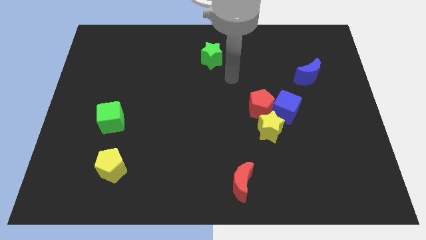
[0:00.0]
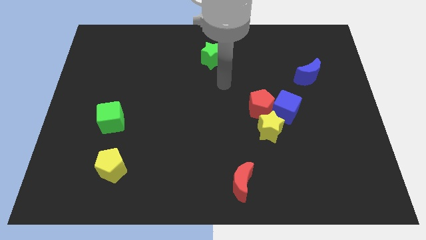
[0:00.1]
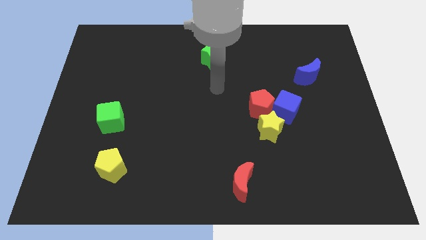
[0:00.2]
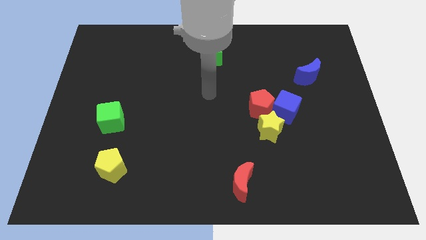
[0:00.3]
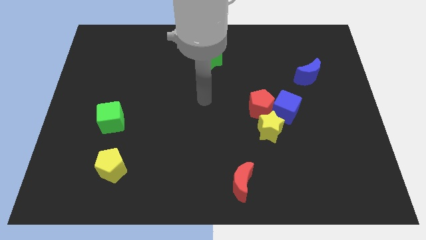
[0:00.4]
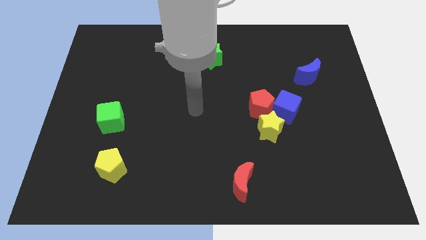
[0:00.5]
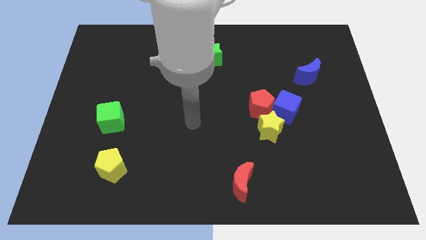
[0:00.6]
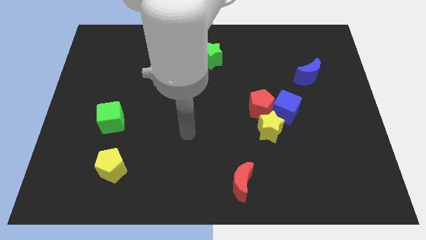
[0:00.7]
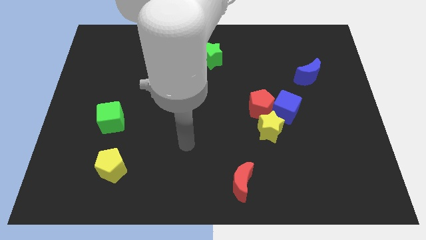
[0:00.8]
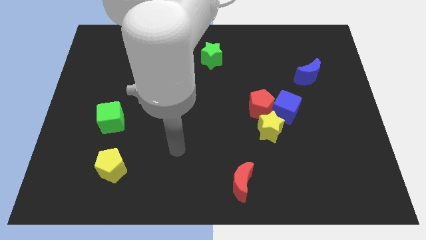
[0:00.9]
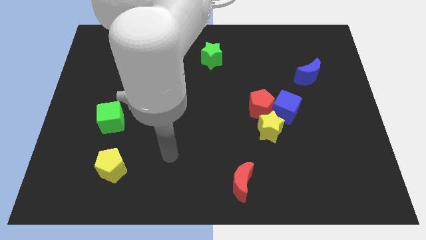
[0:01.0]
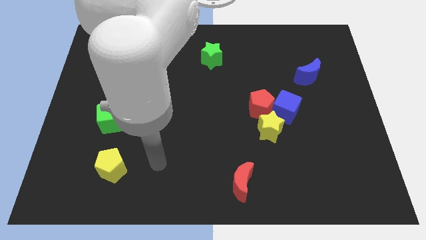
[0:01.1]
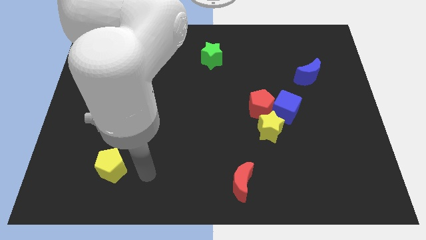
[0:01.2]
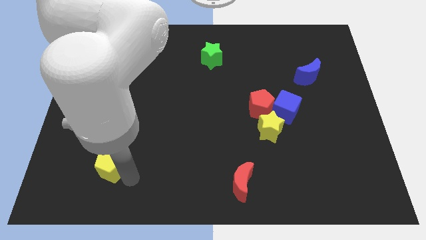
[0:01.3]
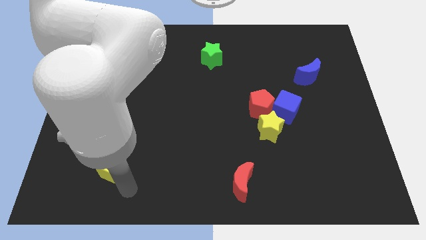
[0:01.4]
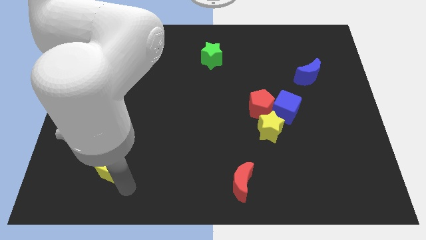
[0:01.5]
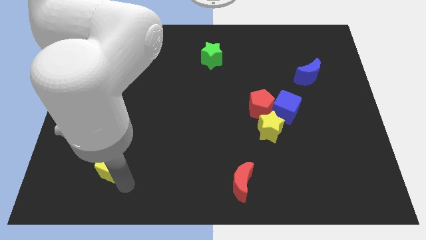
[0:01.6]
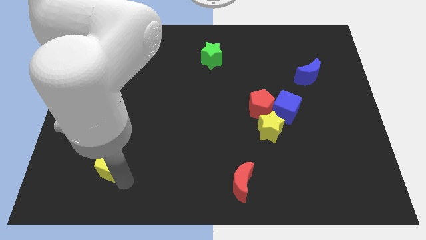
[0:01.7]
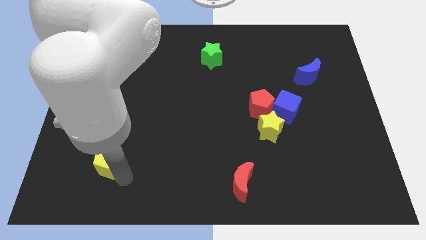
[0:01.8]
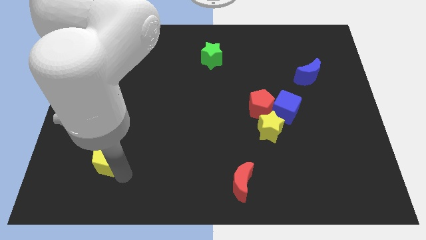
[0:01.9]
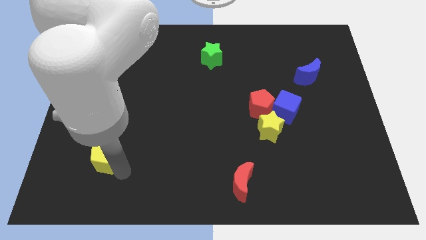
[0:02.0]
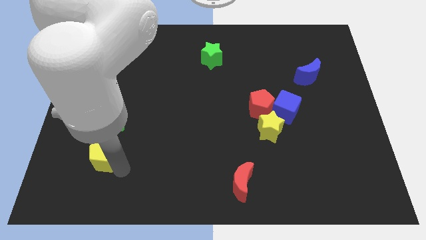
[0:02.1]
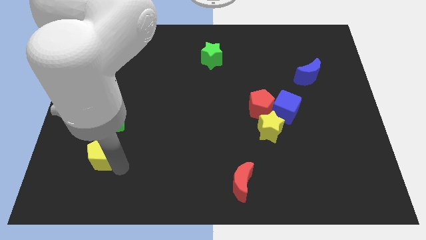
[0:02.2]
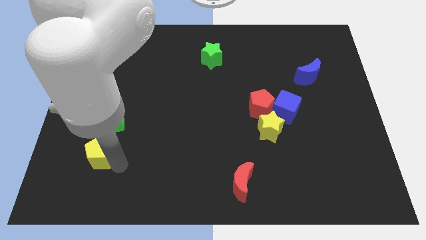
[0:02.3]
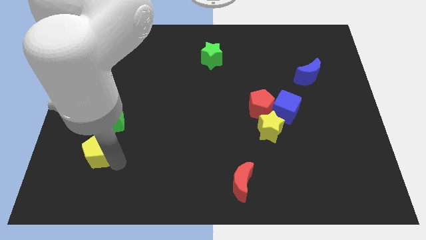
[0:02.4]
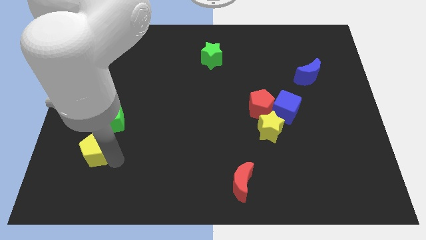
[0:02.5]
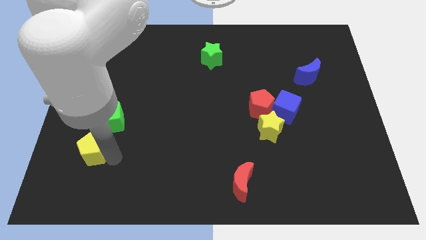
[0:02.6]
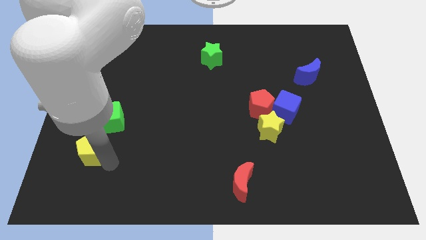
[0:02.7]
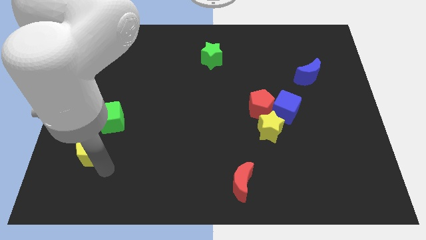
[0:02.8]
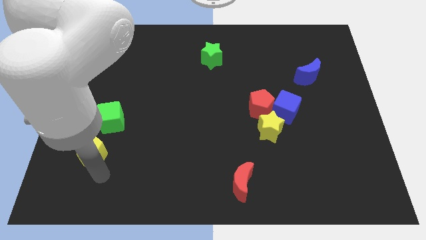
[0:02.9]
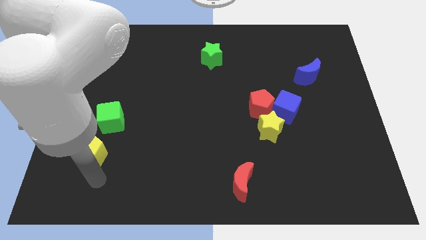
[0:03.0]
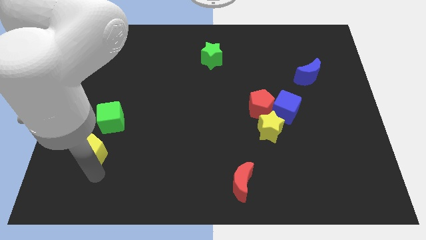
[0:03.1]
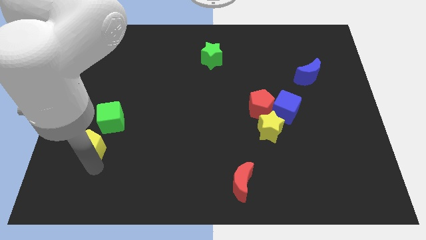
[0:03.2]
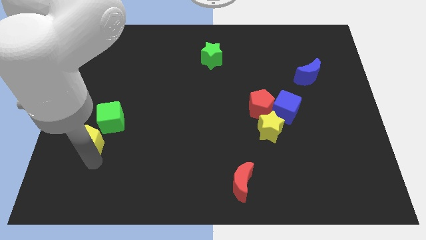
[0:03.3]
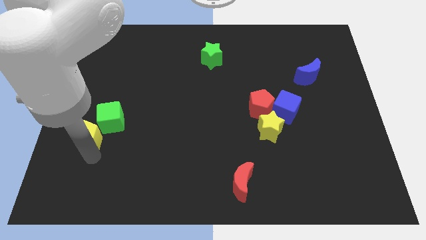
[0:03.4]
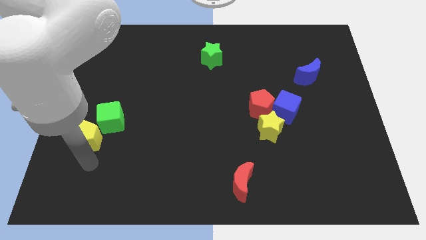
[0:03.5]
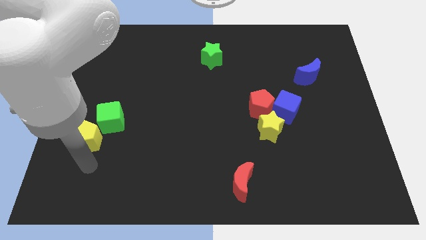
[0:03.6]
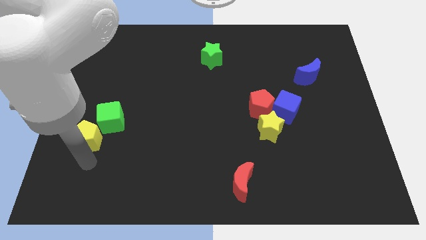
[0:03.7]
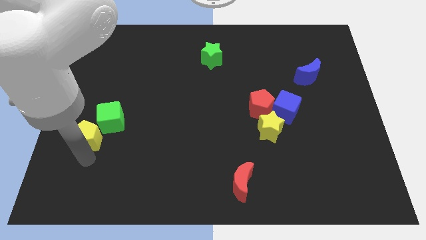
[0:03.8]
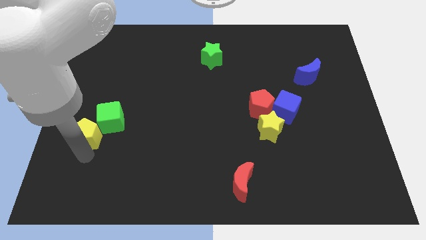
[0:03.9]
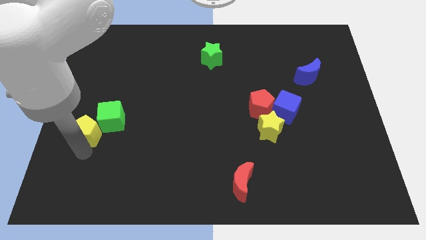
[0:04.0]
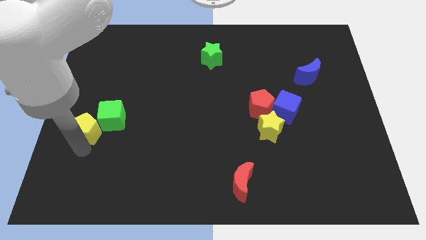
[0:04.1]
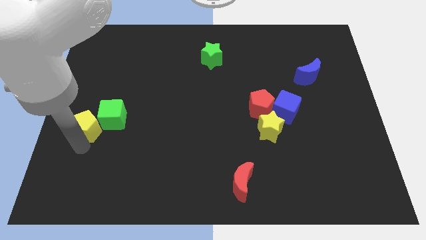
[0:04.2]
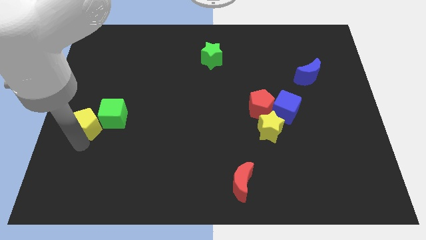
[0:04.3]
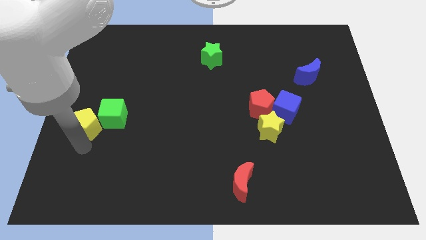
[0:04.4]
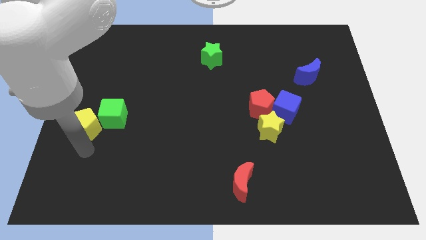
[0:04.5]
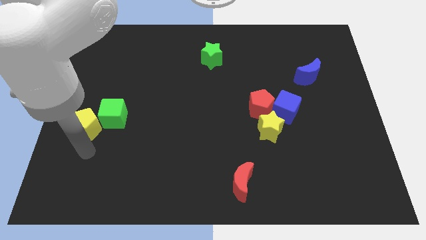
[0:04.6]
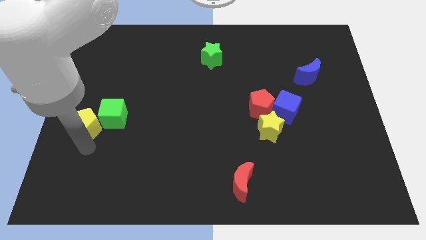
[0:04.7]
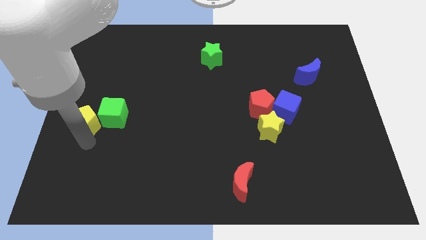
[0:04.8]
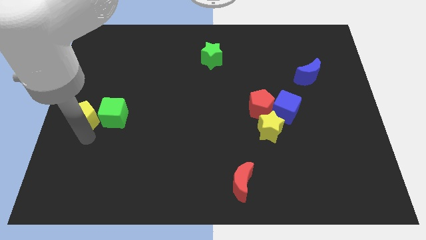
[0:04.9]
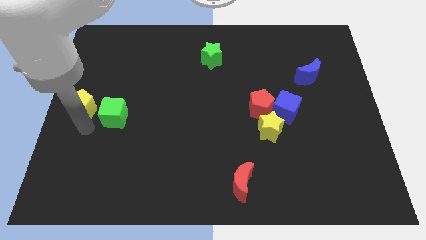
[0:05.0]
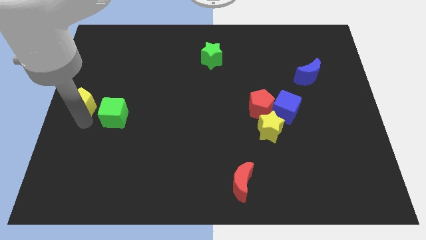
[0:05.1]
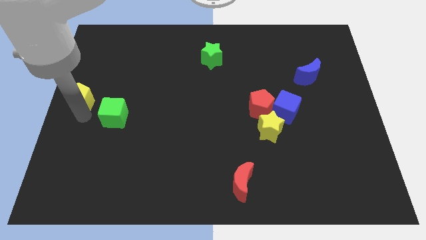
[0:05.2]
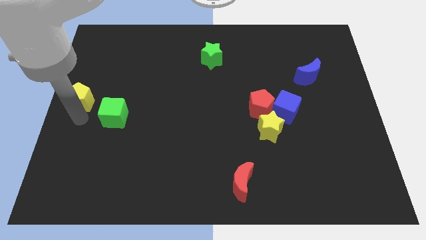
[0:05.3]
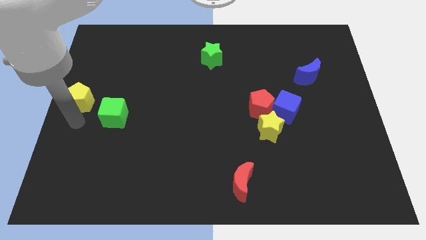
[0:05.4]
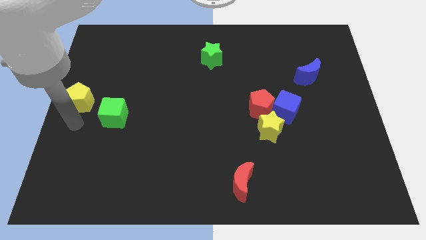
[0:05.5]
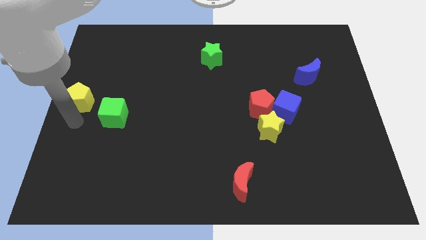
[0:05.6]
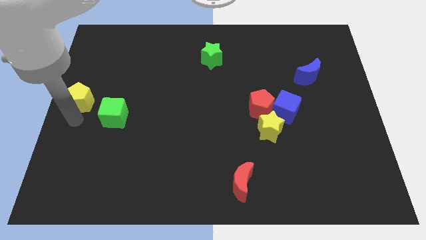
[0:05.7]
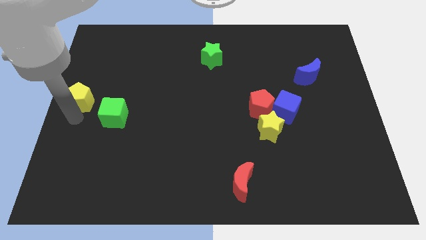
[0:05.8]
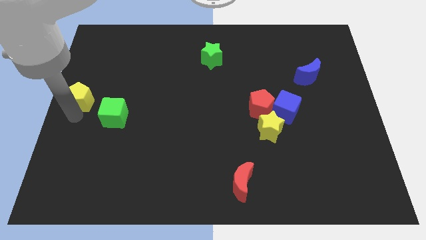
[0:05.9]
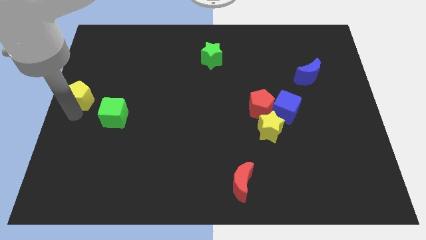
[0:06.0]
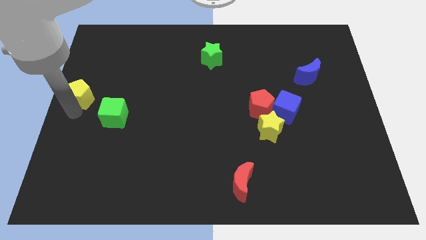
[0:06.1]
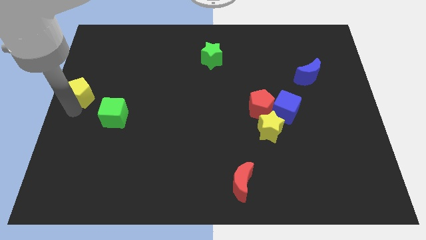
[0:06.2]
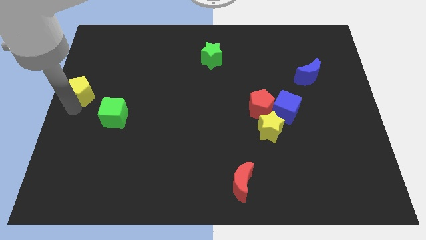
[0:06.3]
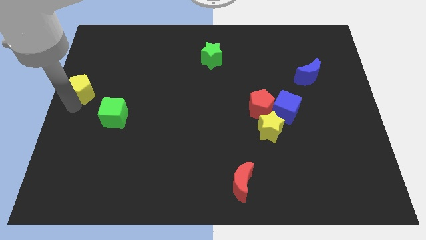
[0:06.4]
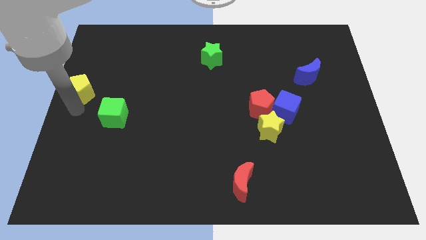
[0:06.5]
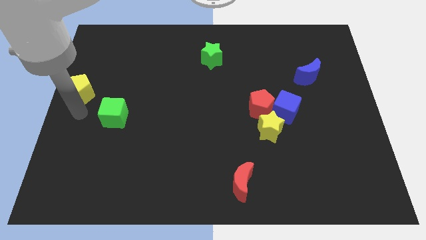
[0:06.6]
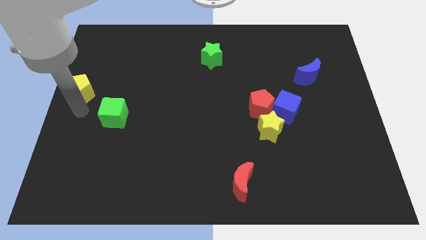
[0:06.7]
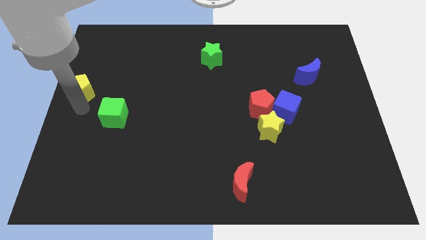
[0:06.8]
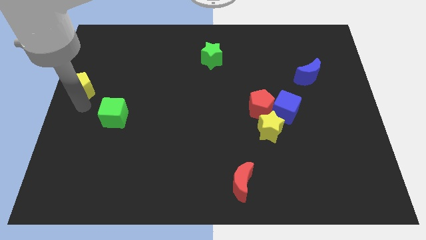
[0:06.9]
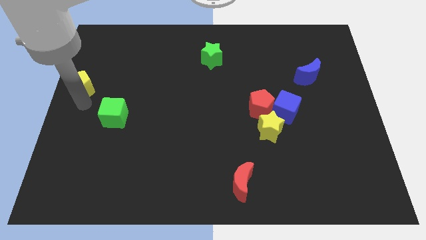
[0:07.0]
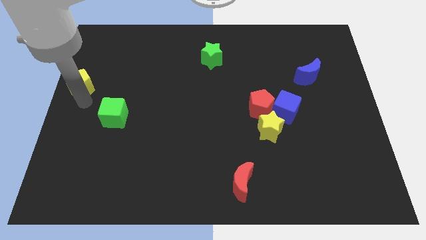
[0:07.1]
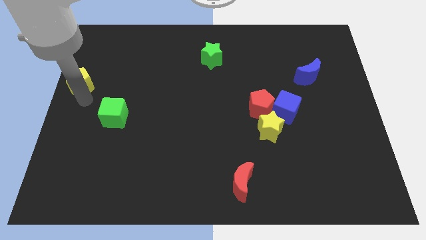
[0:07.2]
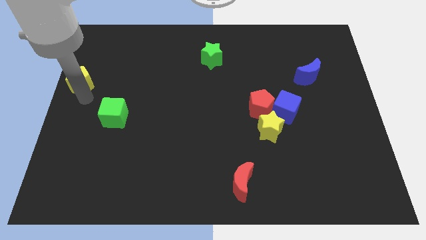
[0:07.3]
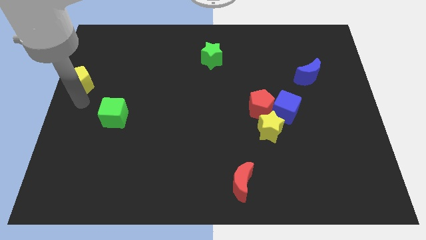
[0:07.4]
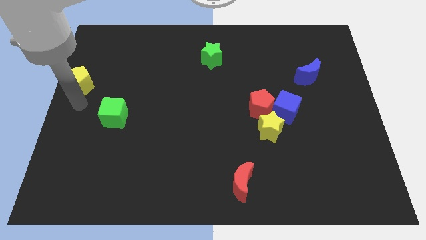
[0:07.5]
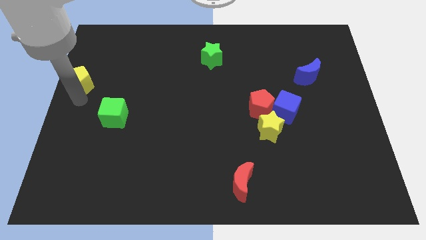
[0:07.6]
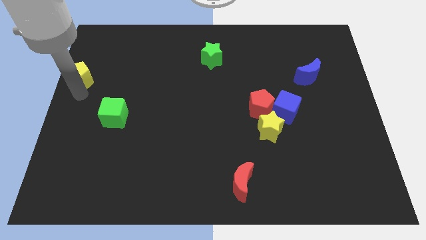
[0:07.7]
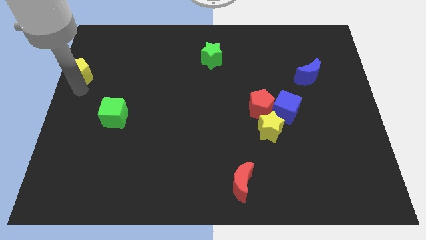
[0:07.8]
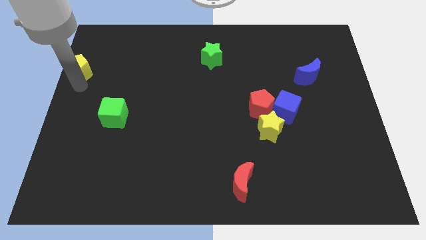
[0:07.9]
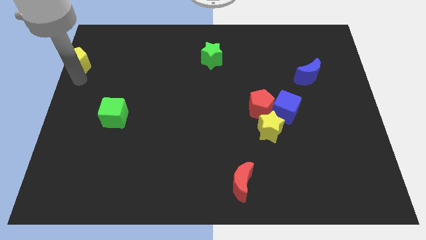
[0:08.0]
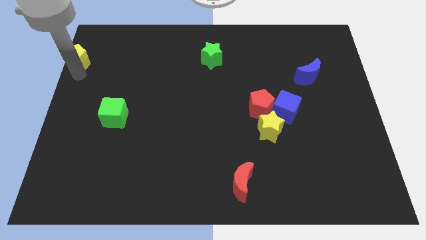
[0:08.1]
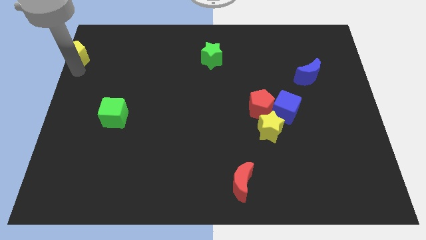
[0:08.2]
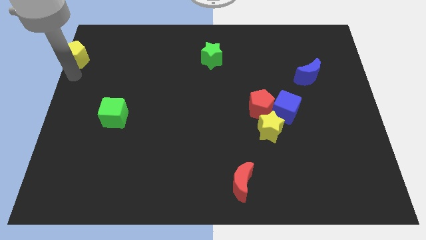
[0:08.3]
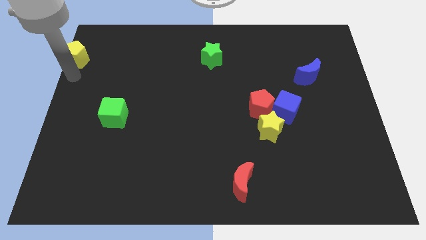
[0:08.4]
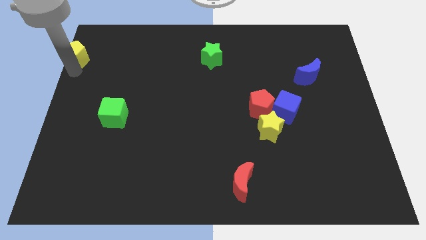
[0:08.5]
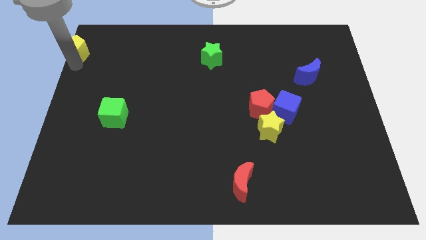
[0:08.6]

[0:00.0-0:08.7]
slide the yellow pentagon to the upper left corner
